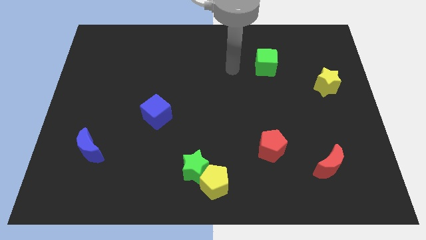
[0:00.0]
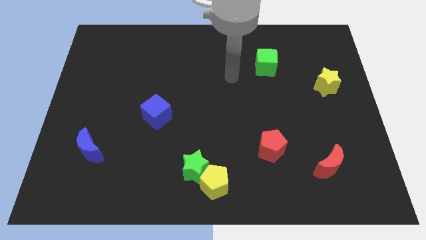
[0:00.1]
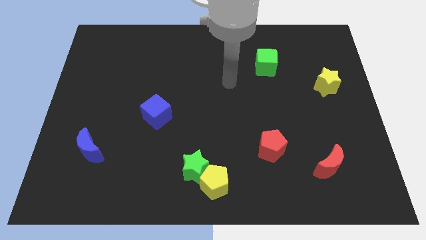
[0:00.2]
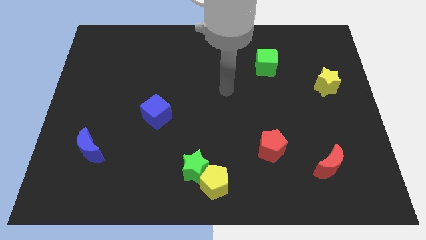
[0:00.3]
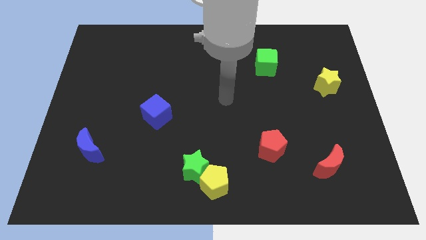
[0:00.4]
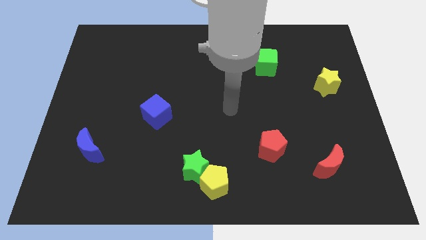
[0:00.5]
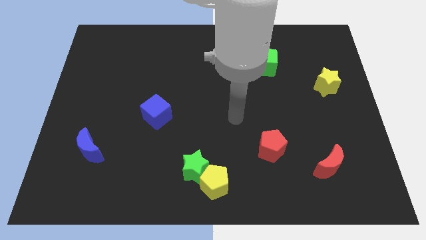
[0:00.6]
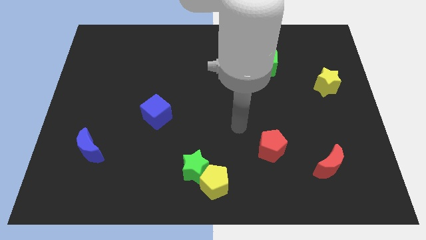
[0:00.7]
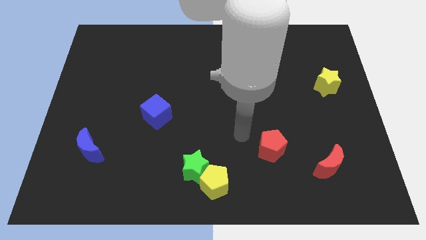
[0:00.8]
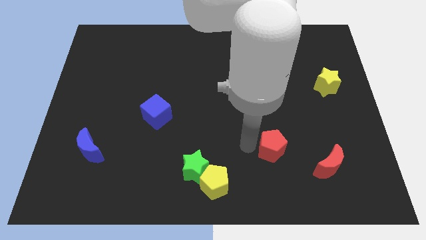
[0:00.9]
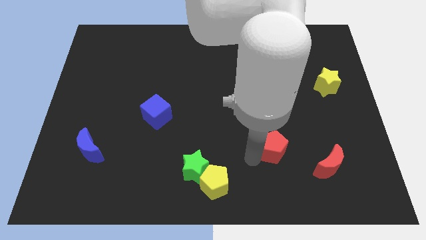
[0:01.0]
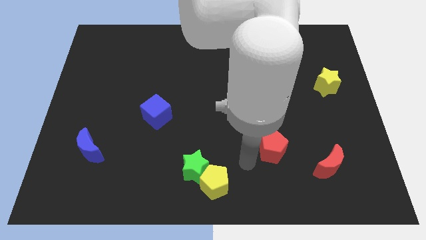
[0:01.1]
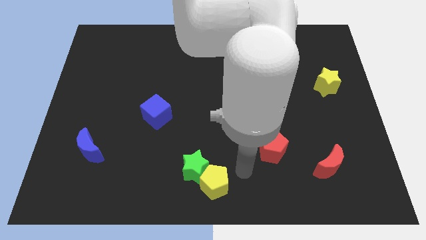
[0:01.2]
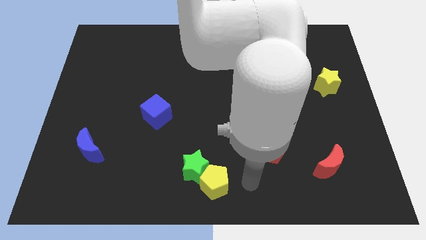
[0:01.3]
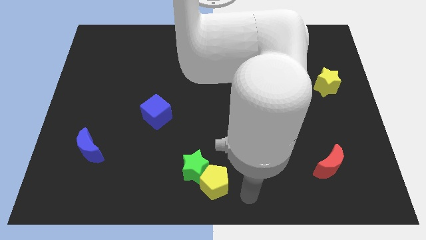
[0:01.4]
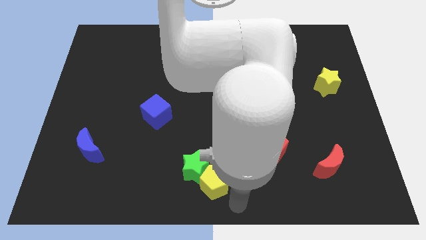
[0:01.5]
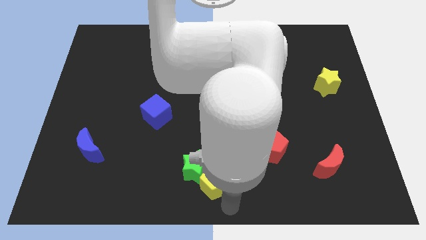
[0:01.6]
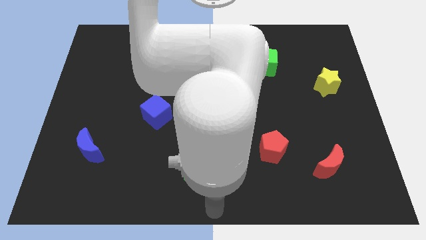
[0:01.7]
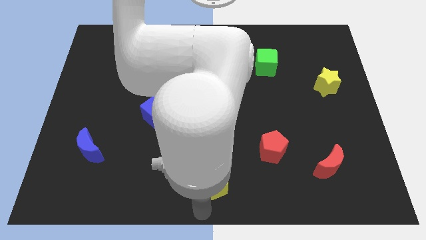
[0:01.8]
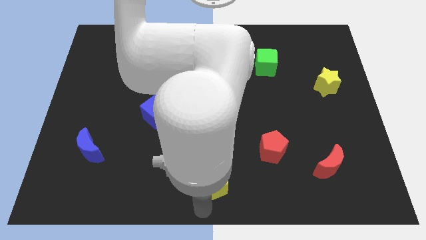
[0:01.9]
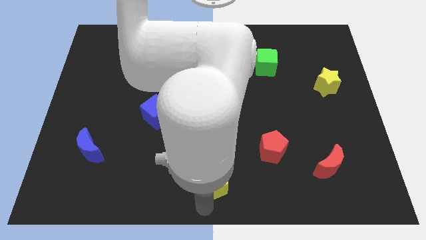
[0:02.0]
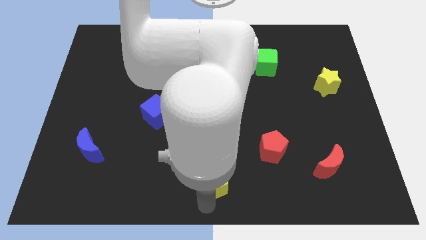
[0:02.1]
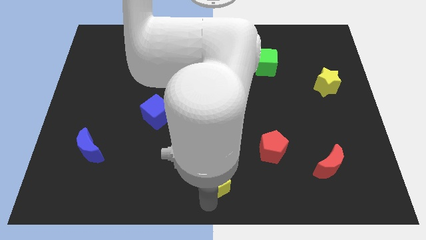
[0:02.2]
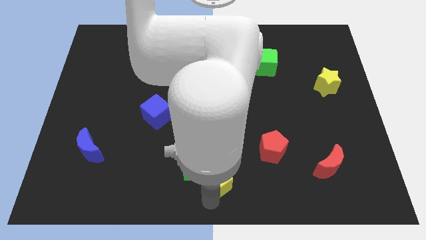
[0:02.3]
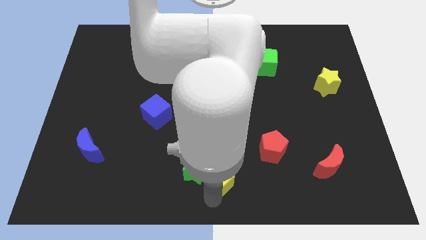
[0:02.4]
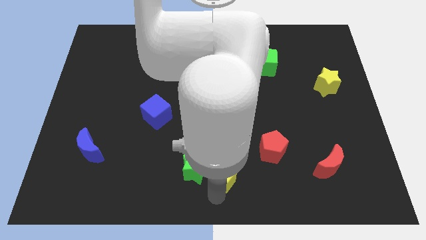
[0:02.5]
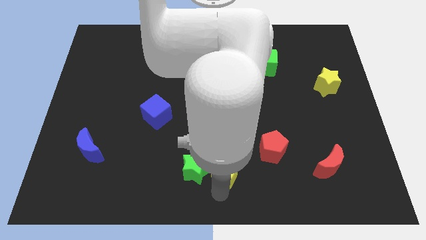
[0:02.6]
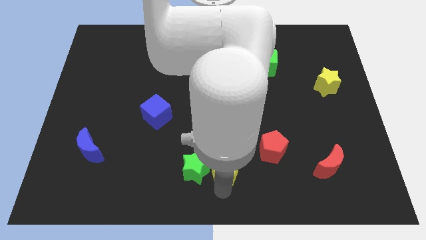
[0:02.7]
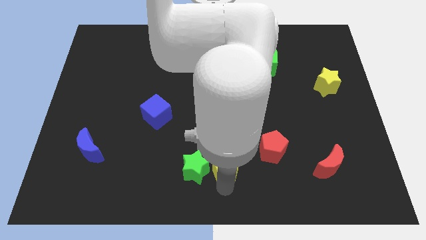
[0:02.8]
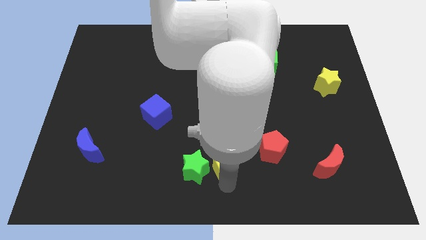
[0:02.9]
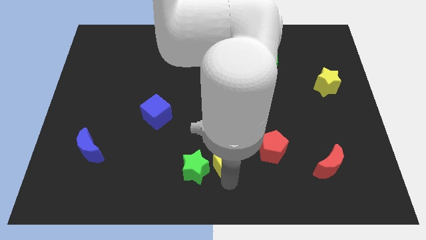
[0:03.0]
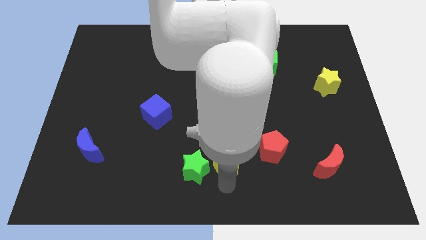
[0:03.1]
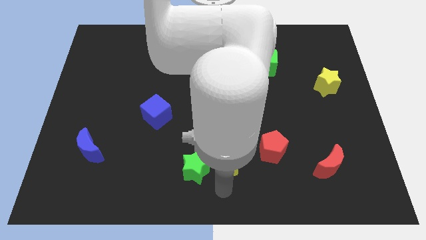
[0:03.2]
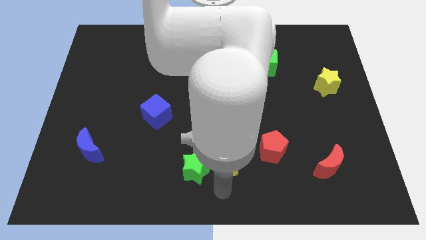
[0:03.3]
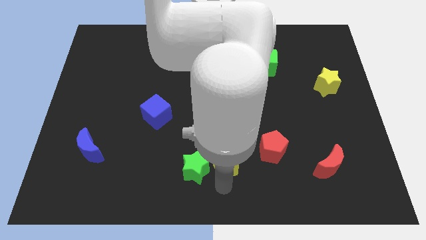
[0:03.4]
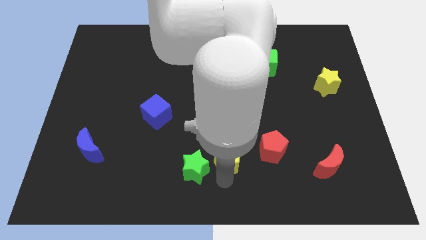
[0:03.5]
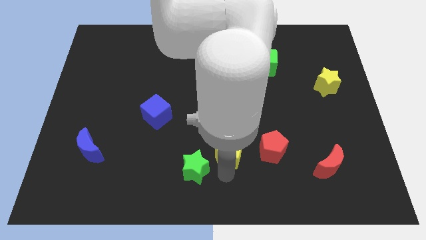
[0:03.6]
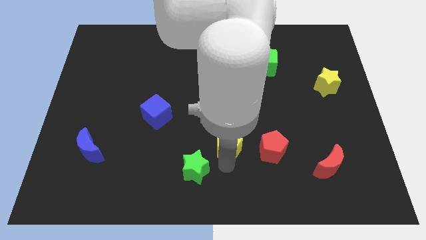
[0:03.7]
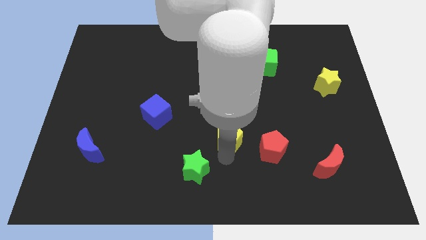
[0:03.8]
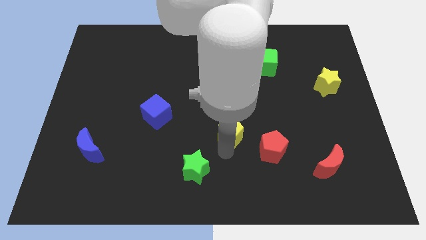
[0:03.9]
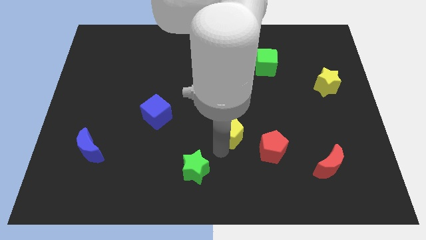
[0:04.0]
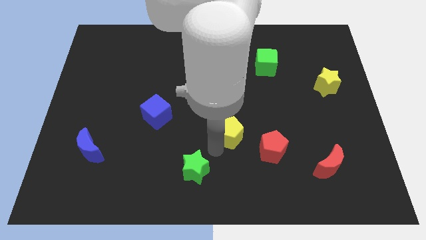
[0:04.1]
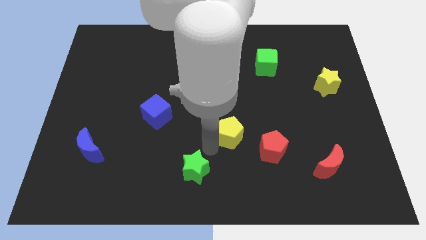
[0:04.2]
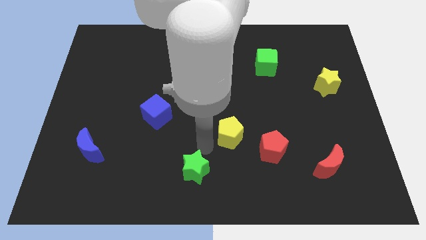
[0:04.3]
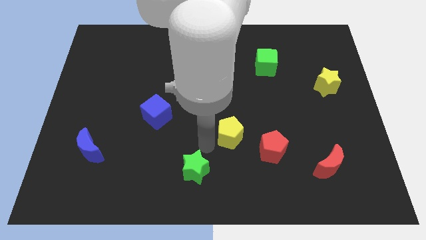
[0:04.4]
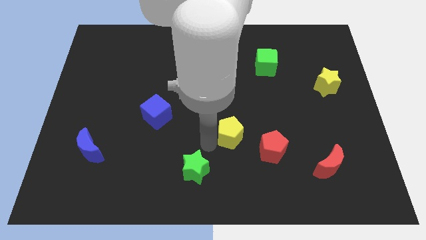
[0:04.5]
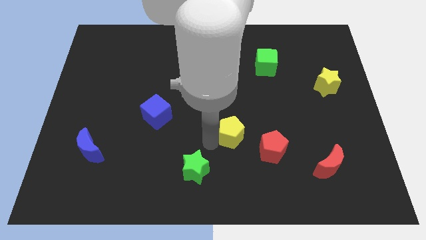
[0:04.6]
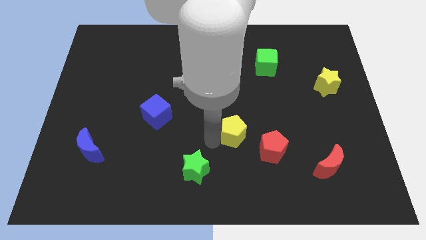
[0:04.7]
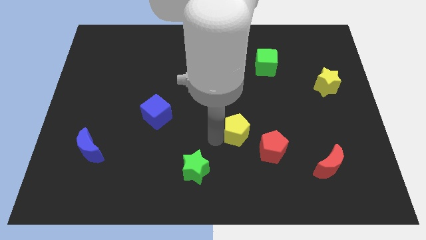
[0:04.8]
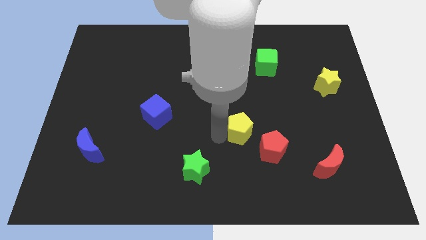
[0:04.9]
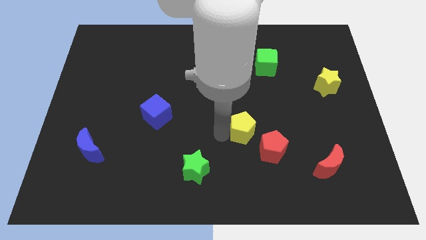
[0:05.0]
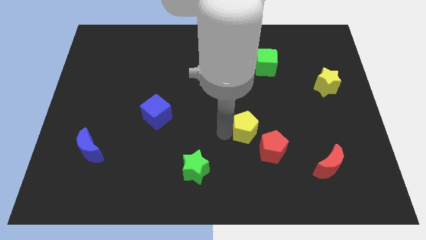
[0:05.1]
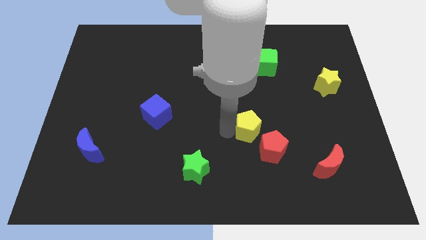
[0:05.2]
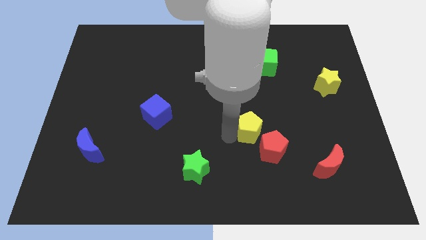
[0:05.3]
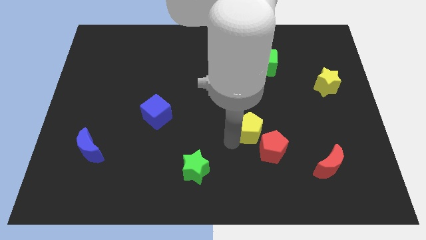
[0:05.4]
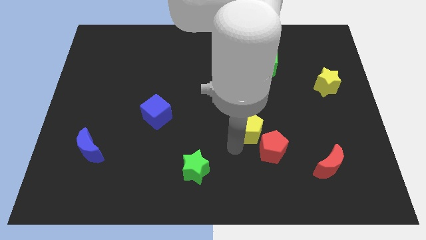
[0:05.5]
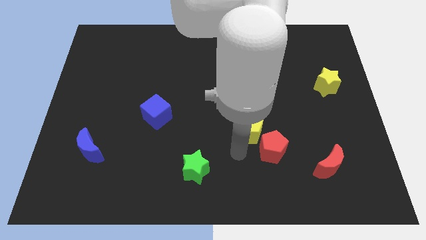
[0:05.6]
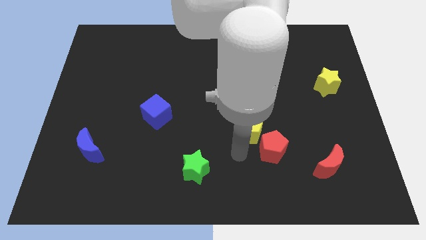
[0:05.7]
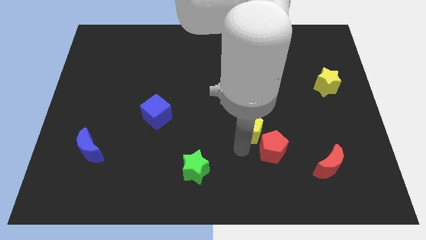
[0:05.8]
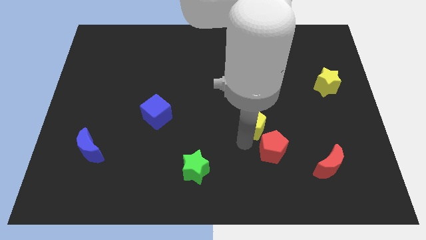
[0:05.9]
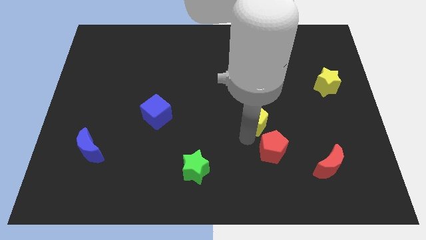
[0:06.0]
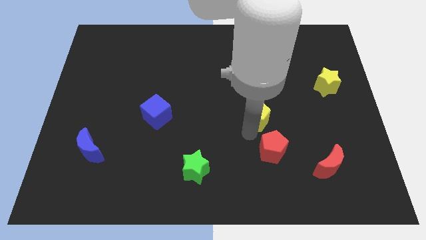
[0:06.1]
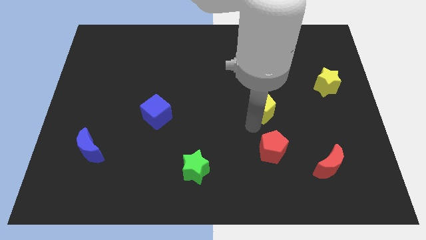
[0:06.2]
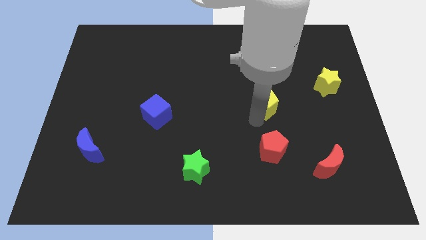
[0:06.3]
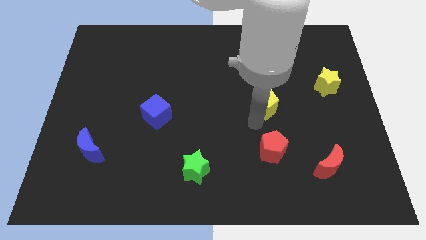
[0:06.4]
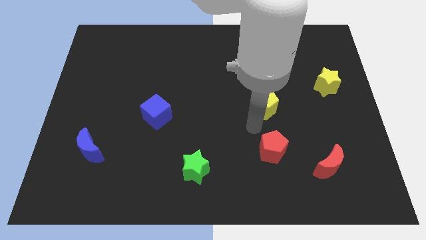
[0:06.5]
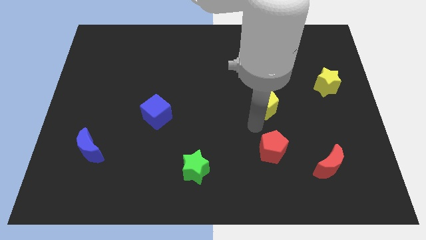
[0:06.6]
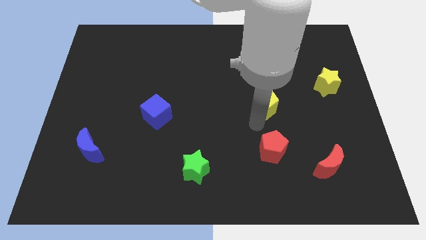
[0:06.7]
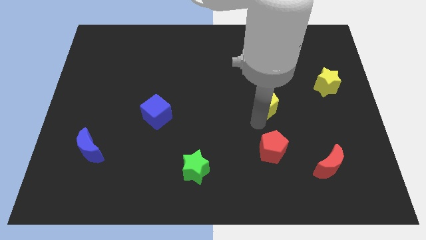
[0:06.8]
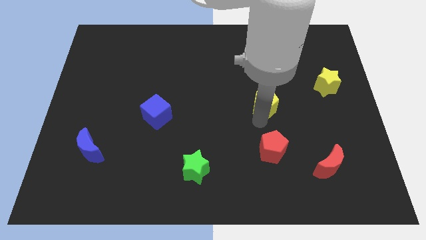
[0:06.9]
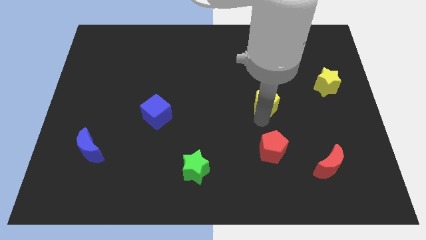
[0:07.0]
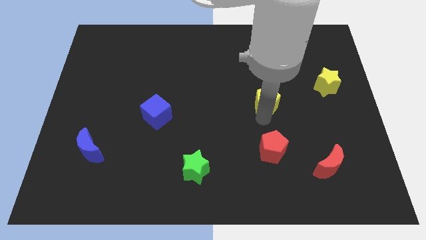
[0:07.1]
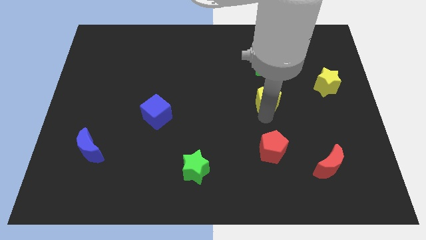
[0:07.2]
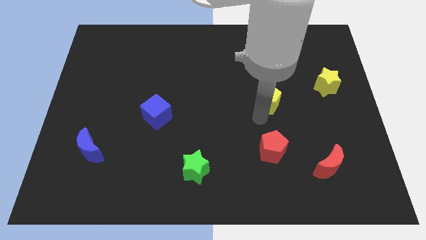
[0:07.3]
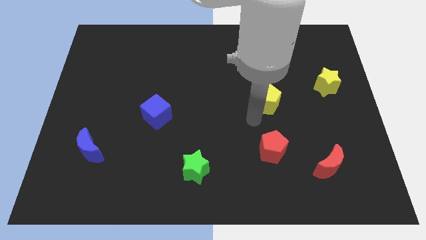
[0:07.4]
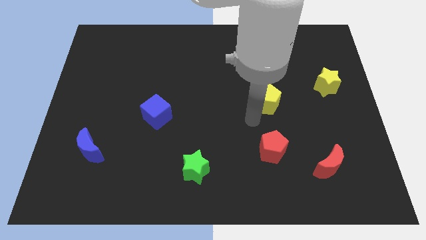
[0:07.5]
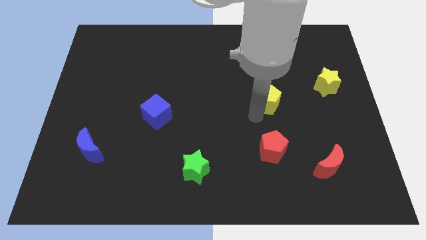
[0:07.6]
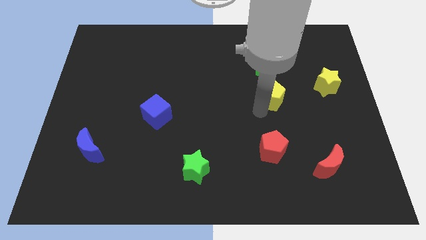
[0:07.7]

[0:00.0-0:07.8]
put the yellow pentagon to the left side of the yellow star
